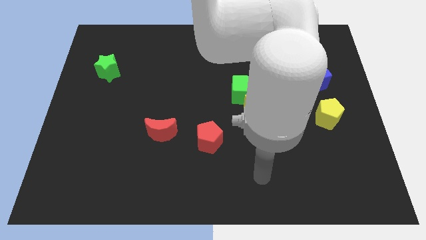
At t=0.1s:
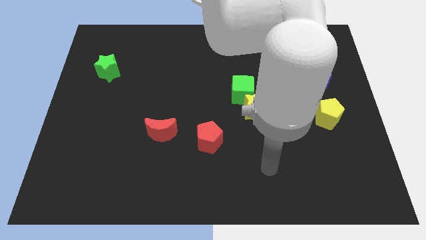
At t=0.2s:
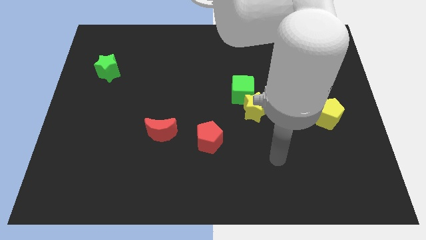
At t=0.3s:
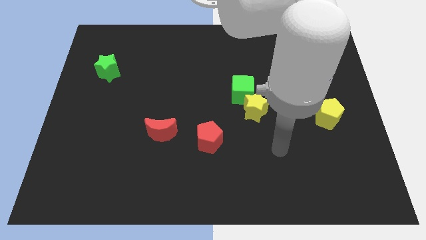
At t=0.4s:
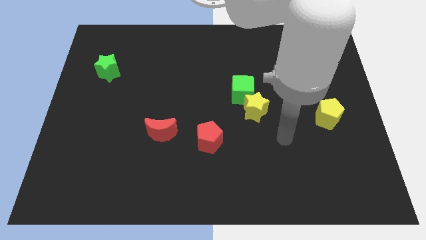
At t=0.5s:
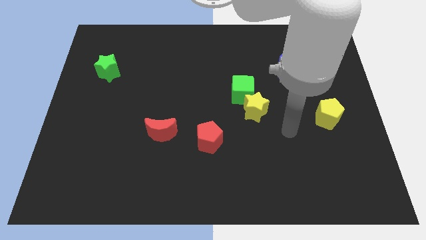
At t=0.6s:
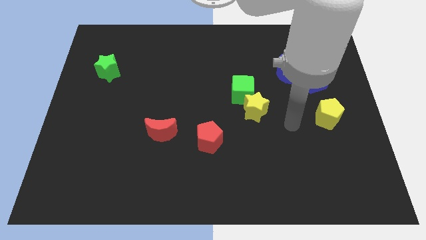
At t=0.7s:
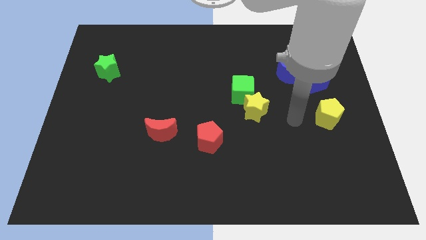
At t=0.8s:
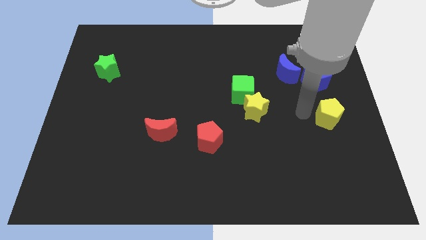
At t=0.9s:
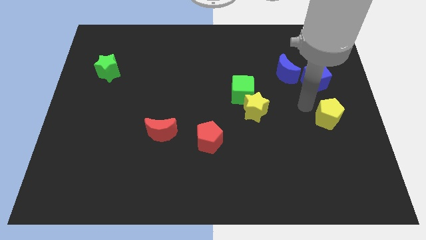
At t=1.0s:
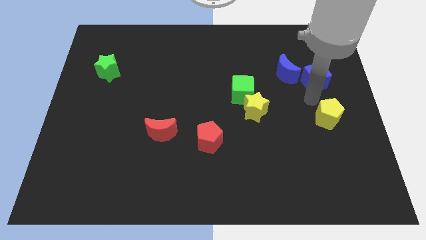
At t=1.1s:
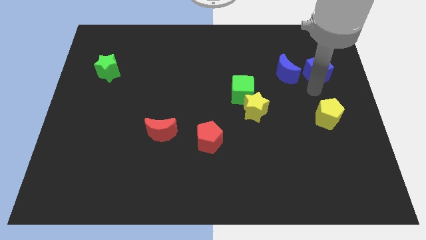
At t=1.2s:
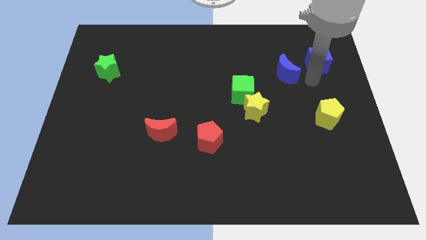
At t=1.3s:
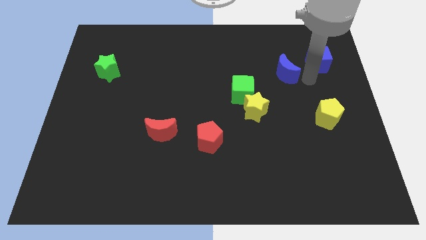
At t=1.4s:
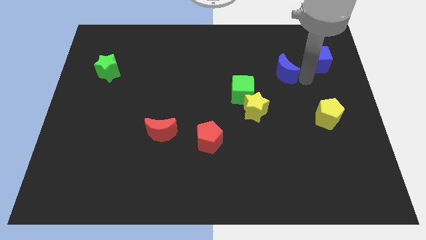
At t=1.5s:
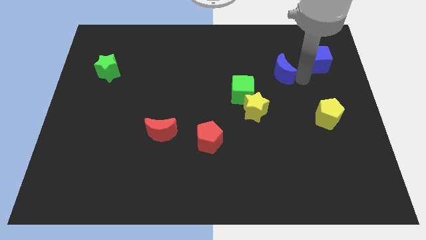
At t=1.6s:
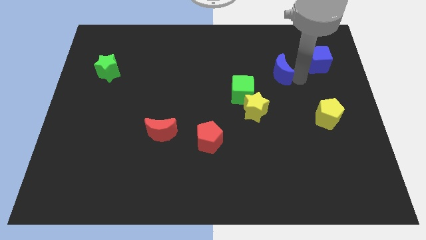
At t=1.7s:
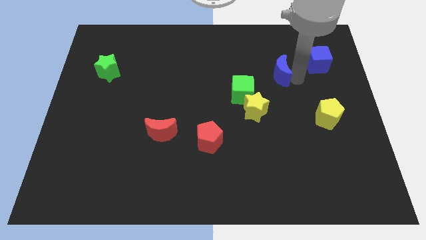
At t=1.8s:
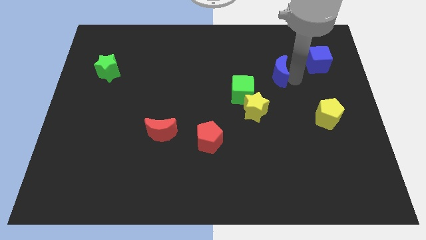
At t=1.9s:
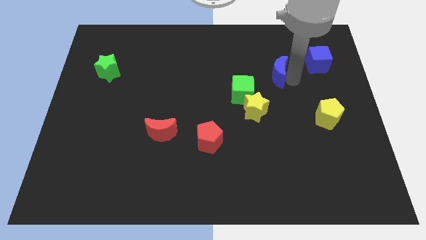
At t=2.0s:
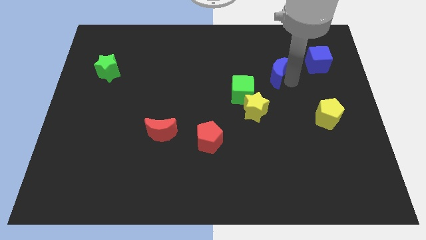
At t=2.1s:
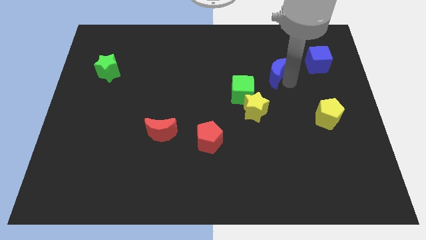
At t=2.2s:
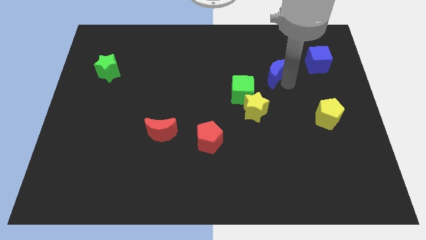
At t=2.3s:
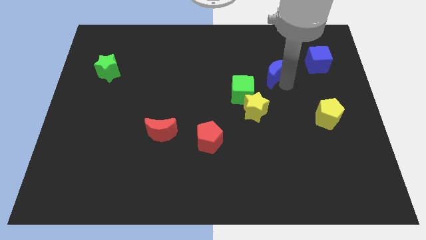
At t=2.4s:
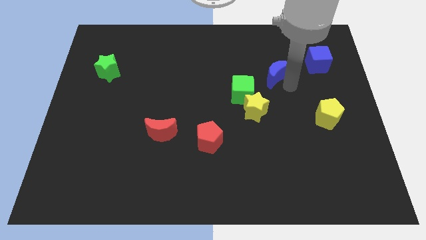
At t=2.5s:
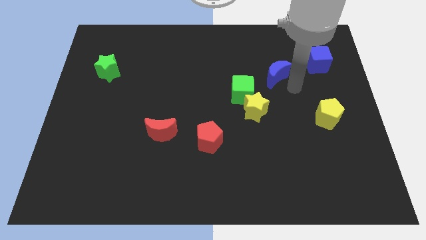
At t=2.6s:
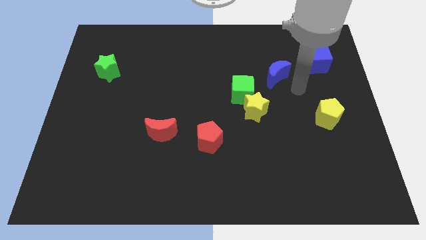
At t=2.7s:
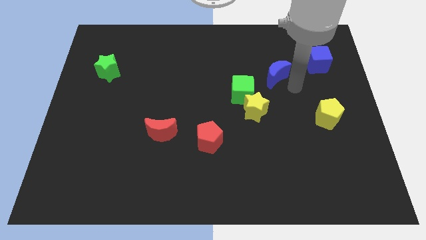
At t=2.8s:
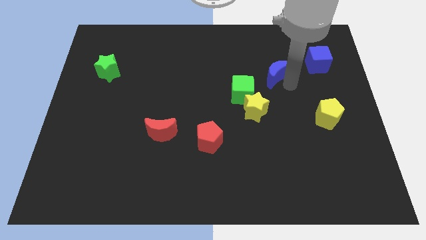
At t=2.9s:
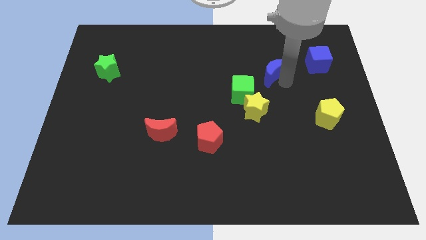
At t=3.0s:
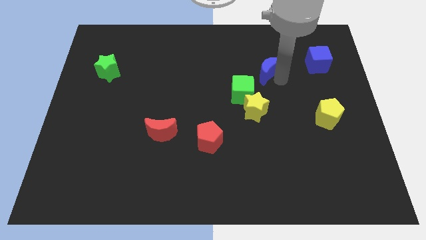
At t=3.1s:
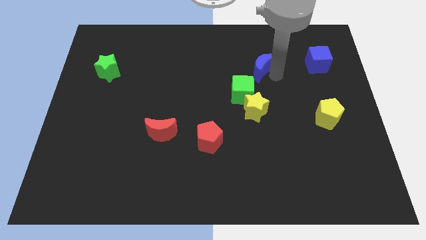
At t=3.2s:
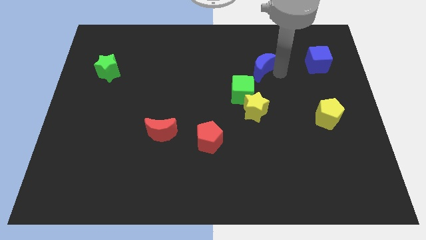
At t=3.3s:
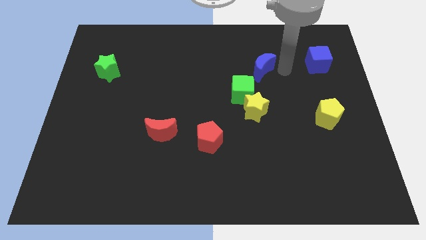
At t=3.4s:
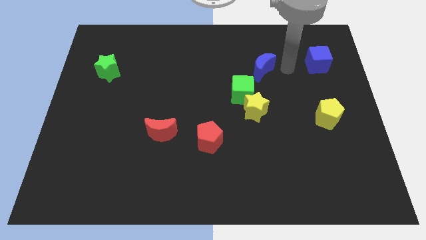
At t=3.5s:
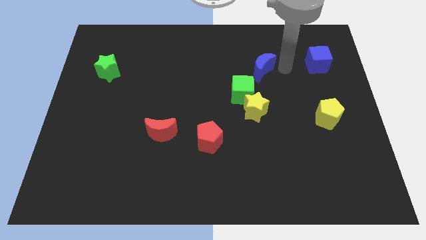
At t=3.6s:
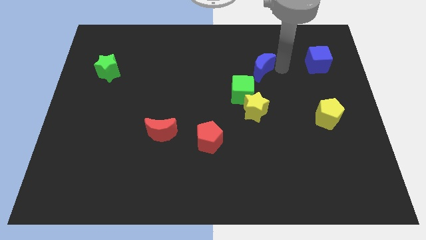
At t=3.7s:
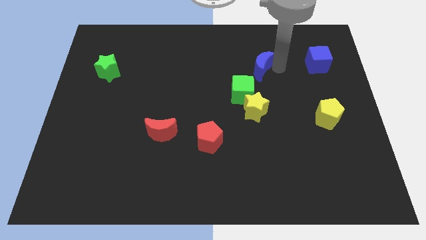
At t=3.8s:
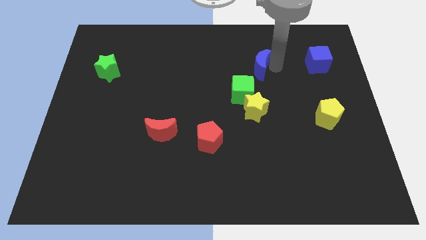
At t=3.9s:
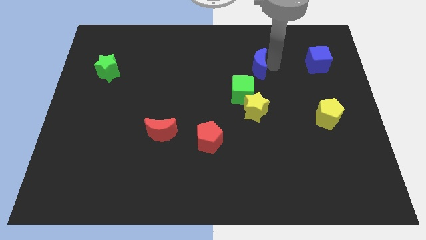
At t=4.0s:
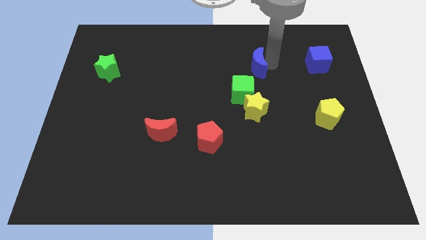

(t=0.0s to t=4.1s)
push the blue moon to the left a bit

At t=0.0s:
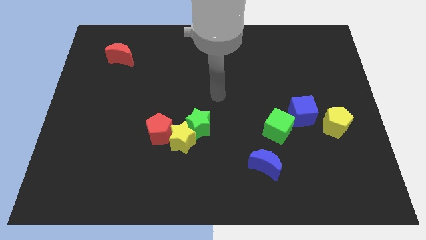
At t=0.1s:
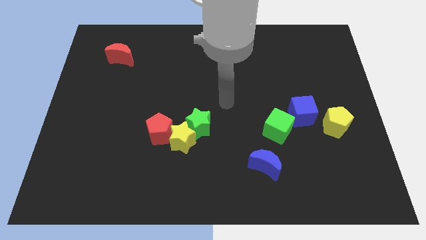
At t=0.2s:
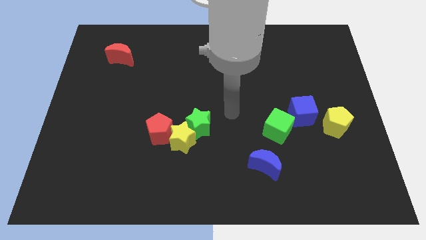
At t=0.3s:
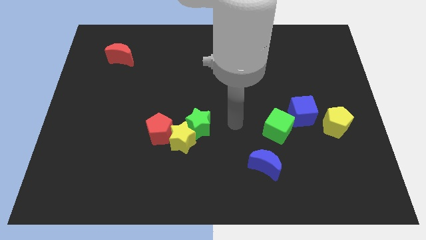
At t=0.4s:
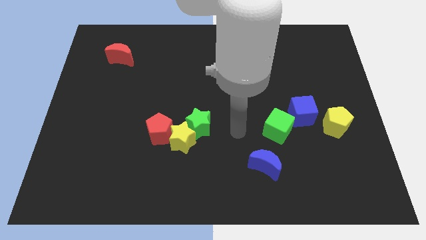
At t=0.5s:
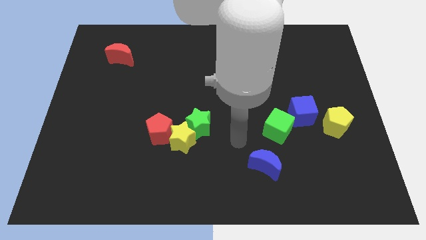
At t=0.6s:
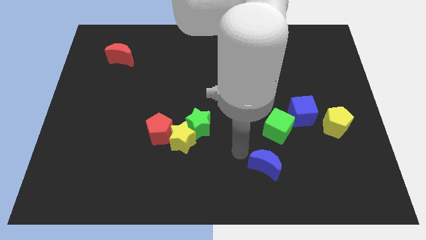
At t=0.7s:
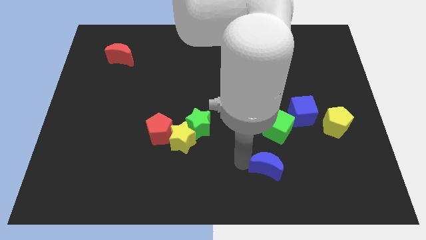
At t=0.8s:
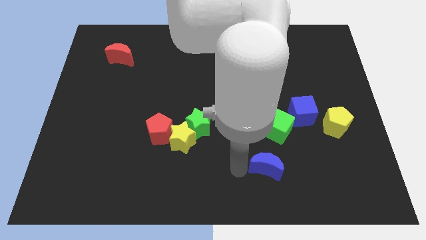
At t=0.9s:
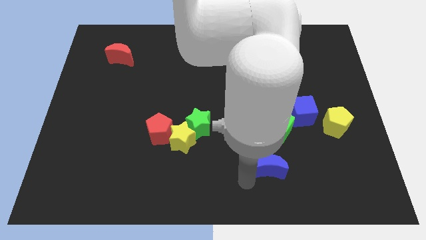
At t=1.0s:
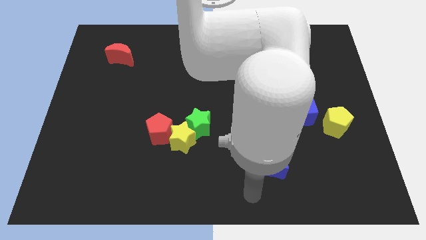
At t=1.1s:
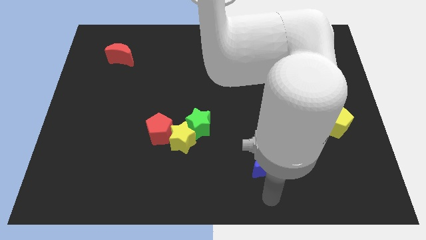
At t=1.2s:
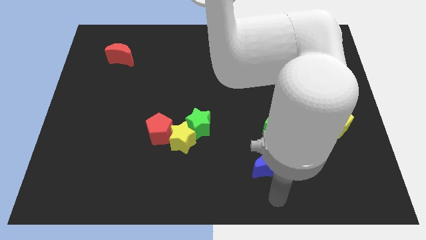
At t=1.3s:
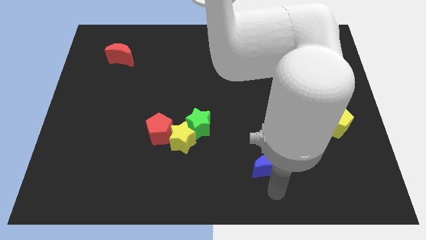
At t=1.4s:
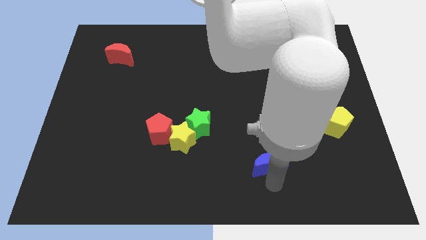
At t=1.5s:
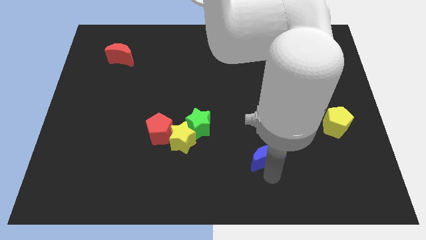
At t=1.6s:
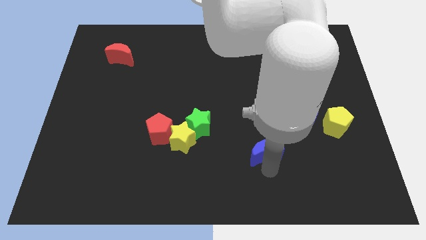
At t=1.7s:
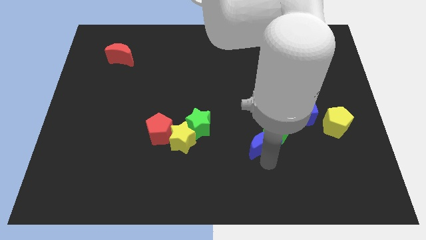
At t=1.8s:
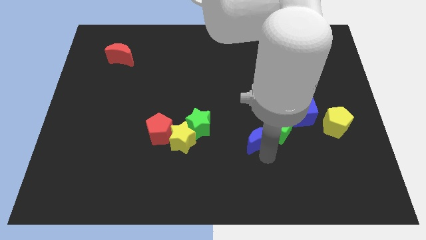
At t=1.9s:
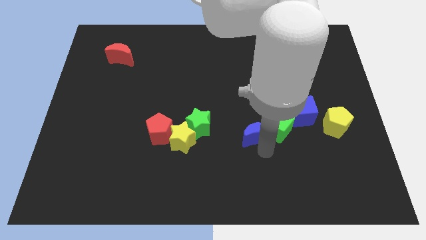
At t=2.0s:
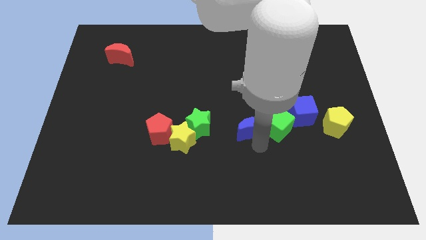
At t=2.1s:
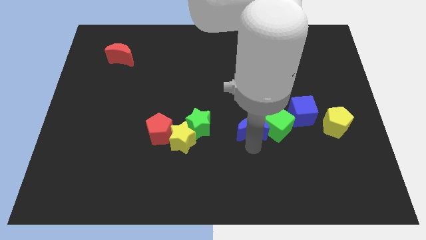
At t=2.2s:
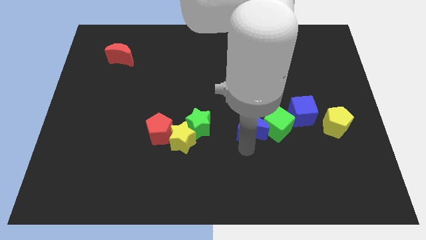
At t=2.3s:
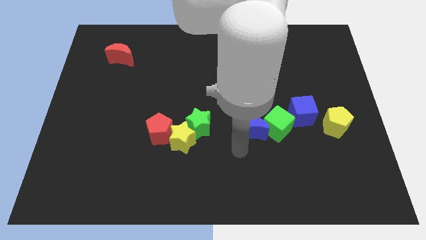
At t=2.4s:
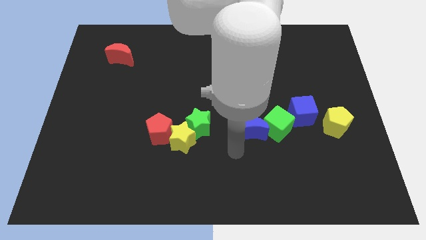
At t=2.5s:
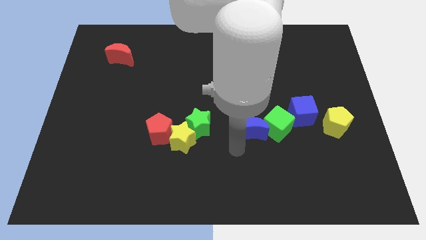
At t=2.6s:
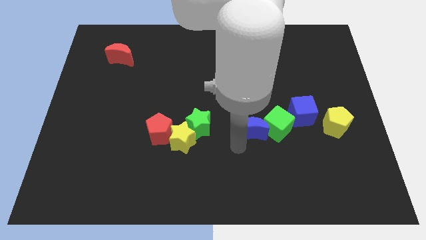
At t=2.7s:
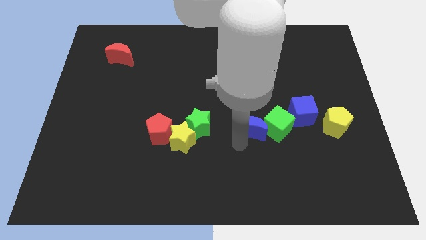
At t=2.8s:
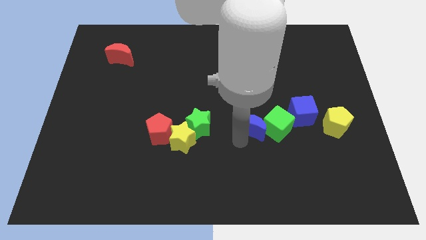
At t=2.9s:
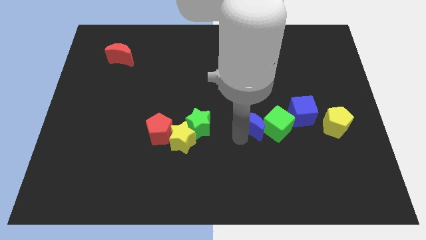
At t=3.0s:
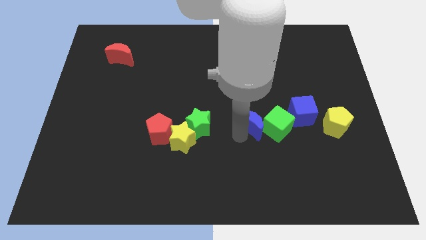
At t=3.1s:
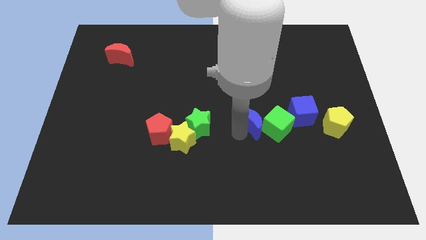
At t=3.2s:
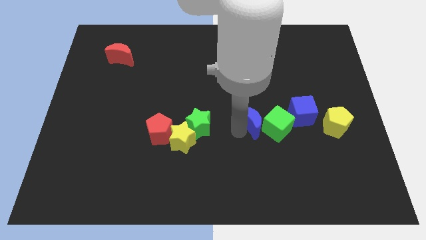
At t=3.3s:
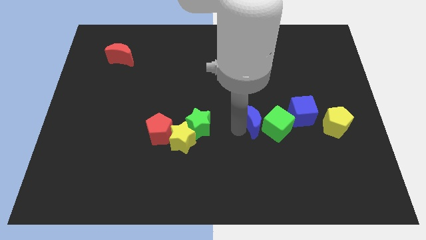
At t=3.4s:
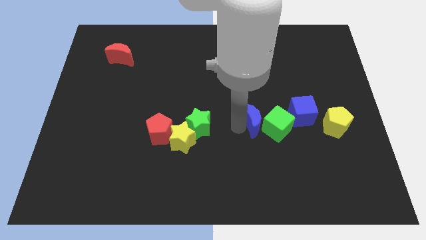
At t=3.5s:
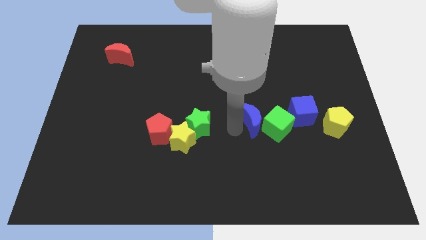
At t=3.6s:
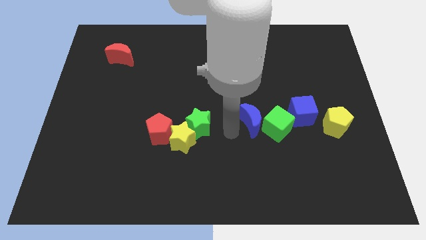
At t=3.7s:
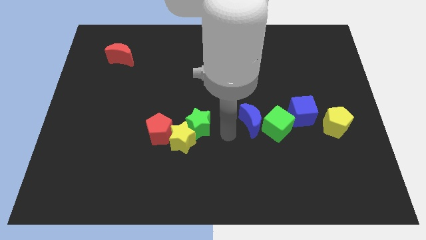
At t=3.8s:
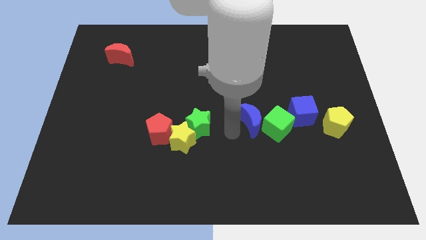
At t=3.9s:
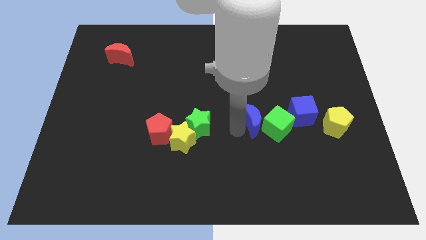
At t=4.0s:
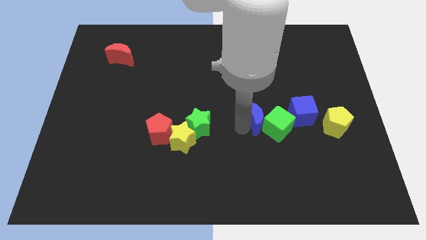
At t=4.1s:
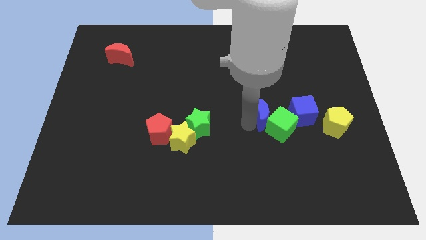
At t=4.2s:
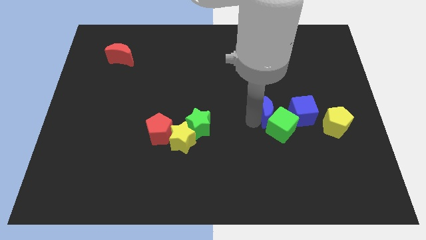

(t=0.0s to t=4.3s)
push the blue moon diagonally up and right a little bit
